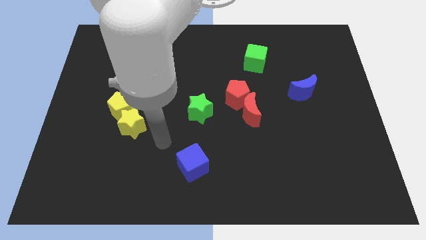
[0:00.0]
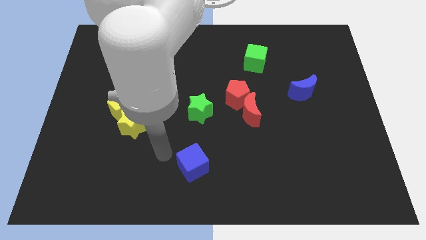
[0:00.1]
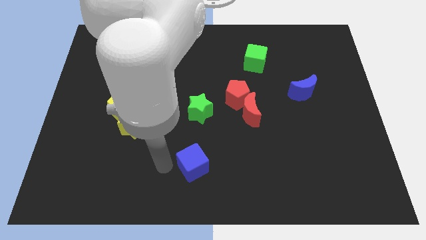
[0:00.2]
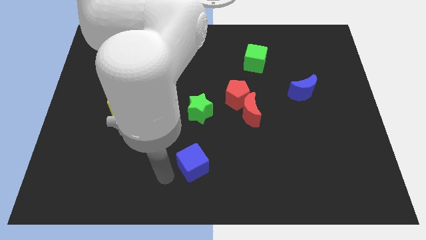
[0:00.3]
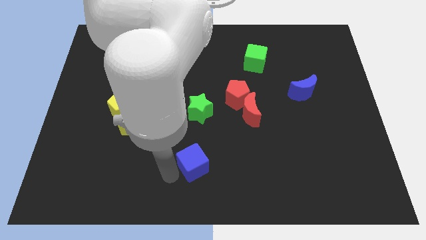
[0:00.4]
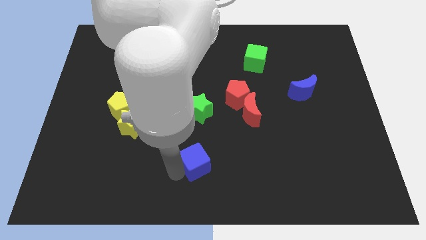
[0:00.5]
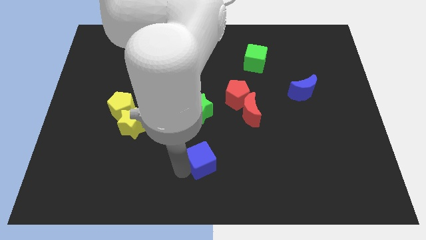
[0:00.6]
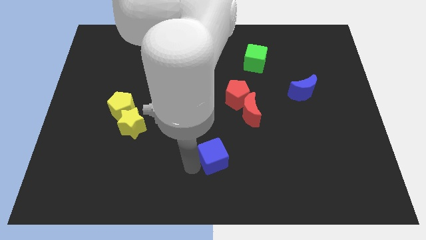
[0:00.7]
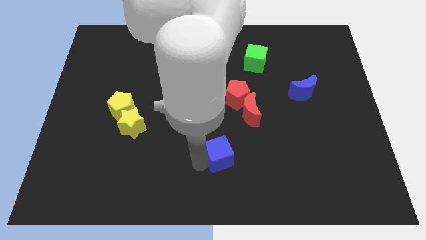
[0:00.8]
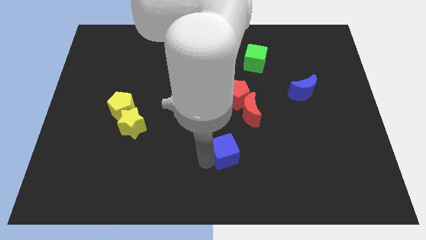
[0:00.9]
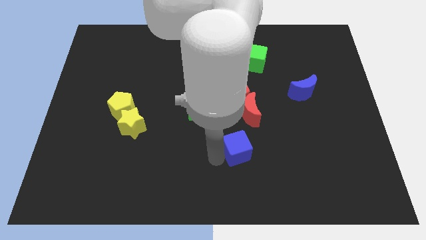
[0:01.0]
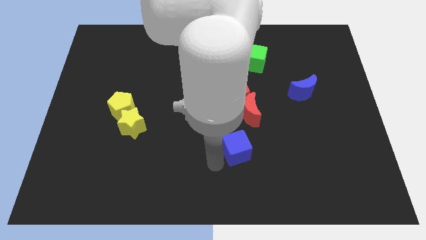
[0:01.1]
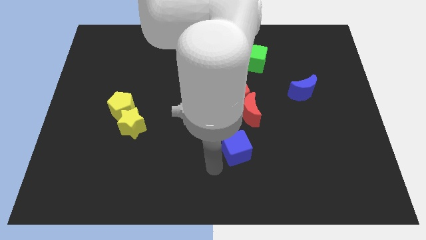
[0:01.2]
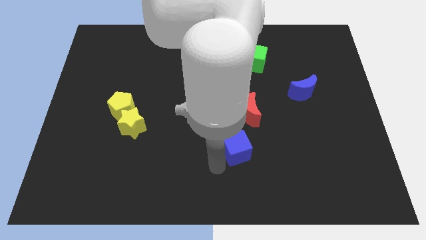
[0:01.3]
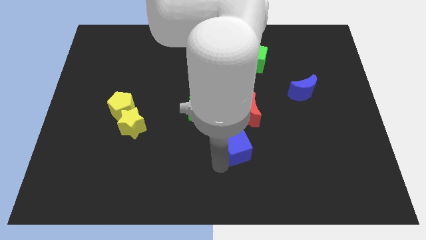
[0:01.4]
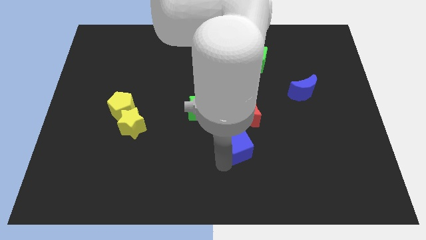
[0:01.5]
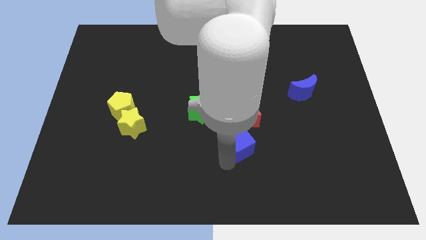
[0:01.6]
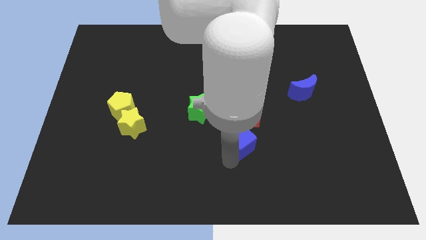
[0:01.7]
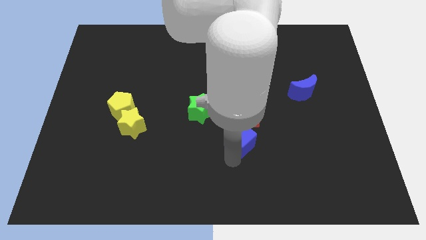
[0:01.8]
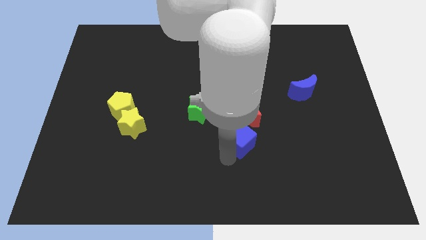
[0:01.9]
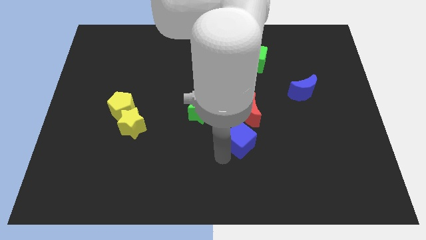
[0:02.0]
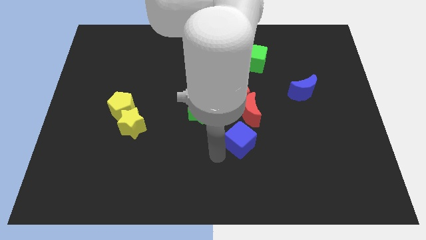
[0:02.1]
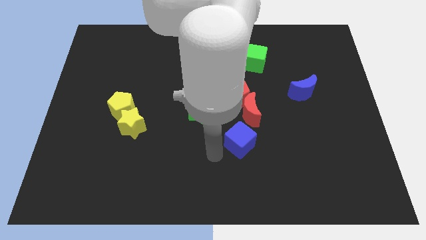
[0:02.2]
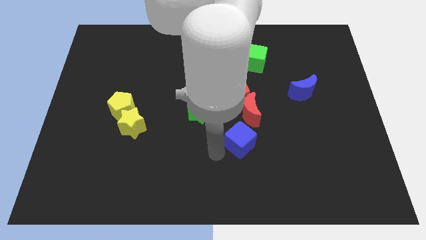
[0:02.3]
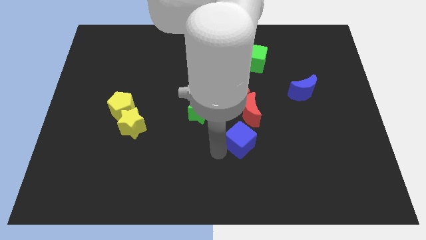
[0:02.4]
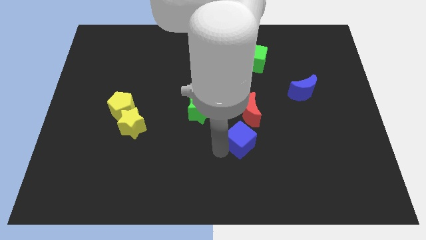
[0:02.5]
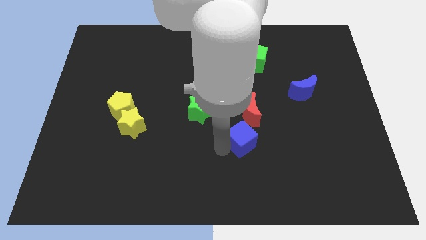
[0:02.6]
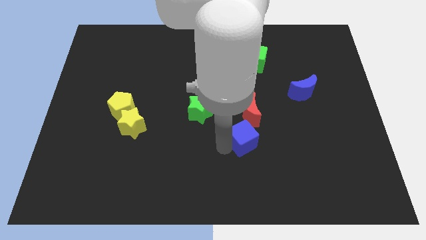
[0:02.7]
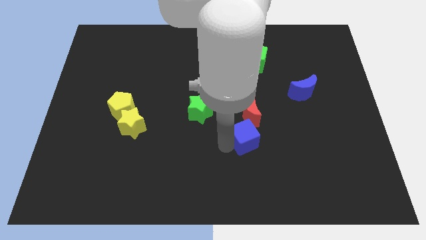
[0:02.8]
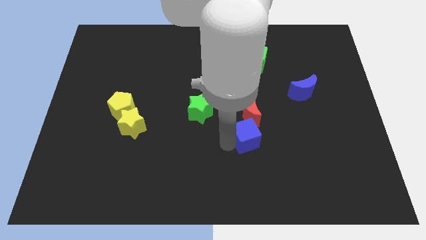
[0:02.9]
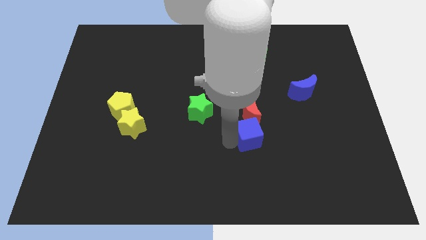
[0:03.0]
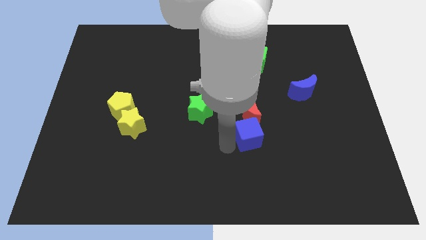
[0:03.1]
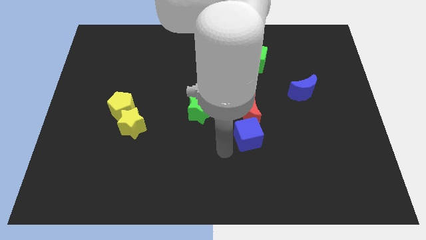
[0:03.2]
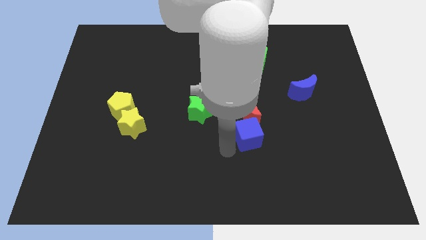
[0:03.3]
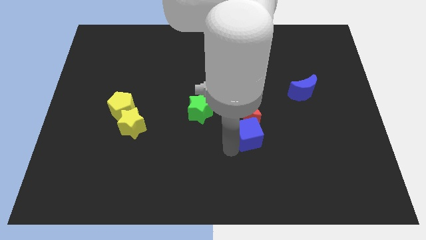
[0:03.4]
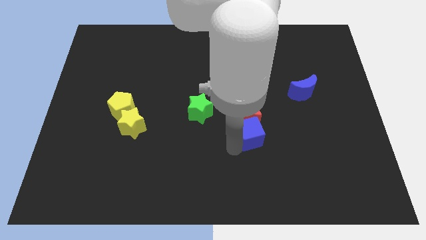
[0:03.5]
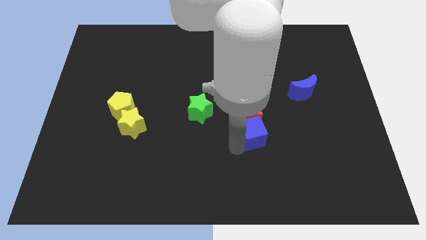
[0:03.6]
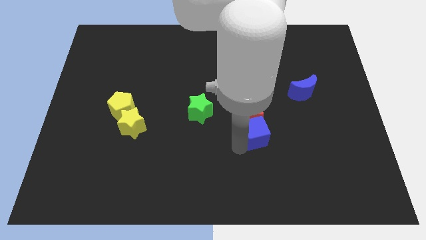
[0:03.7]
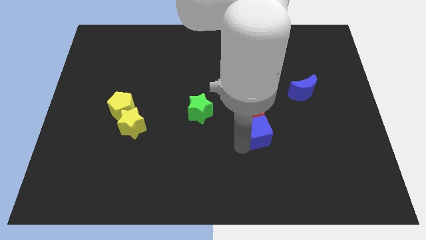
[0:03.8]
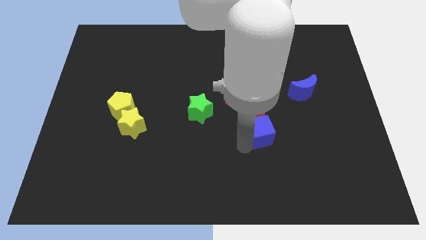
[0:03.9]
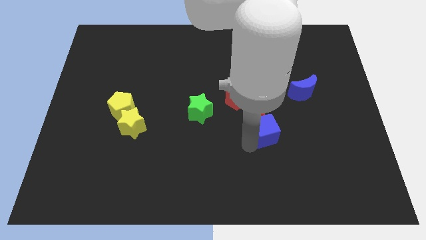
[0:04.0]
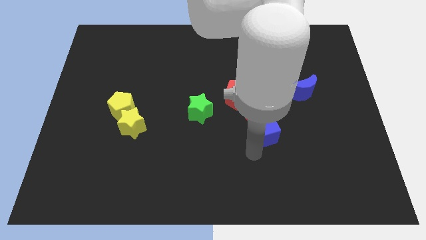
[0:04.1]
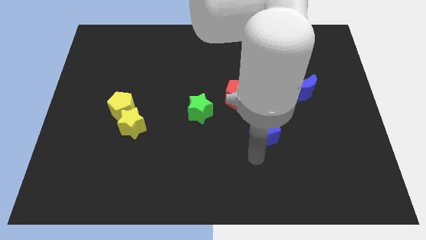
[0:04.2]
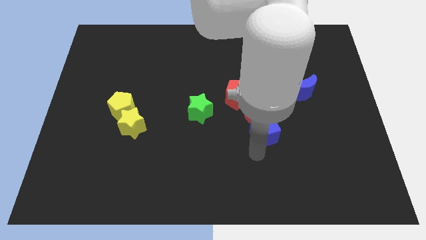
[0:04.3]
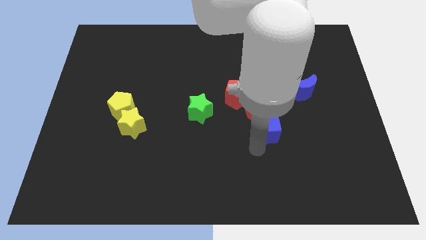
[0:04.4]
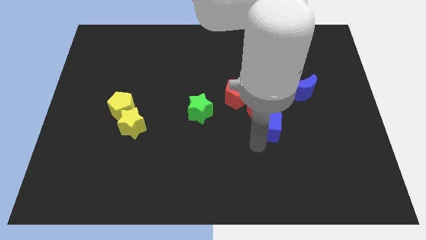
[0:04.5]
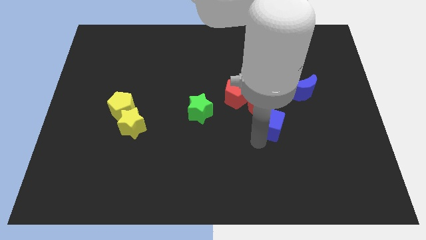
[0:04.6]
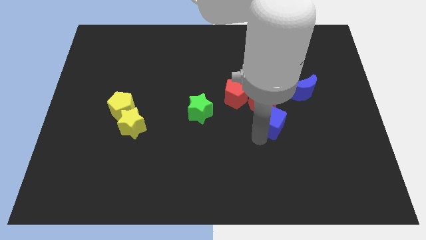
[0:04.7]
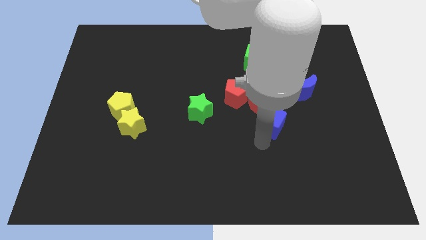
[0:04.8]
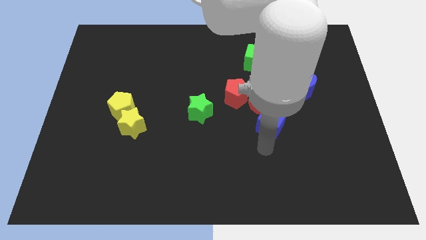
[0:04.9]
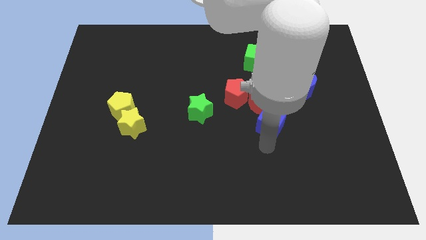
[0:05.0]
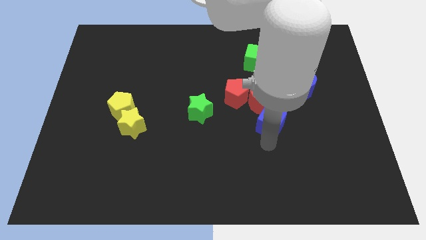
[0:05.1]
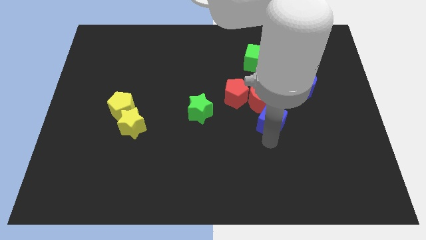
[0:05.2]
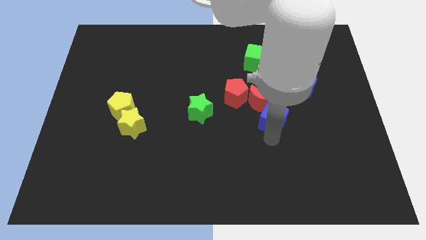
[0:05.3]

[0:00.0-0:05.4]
push the blue cube upwards and right

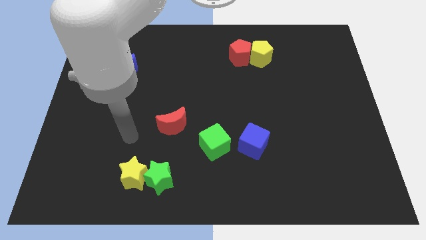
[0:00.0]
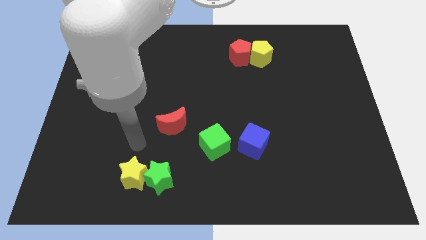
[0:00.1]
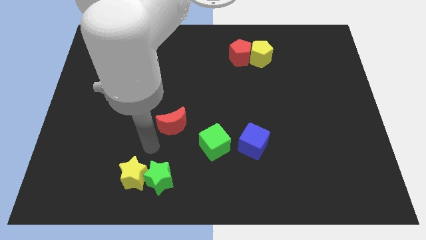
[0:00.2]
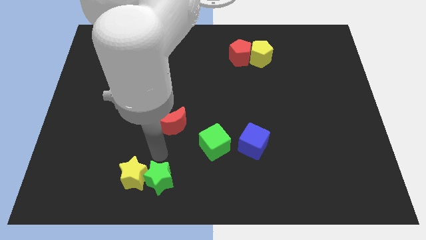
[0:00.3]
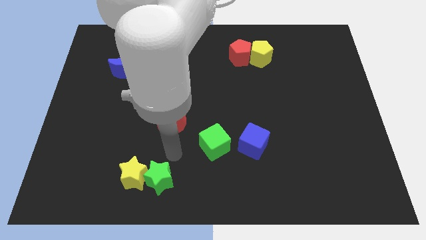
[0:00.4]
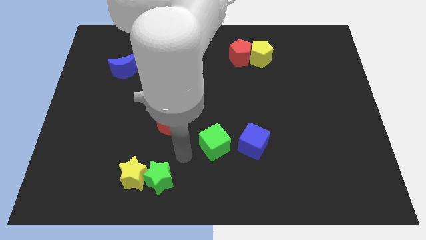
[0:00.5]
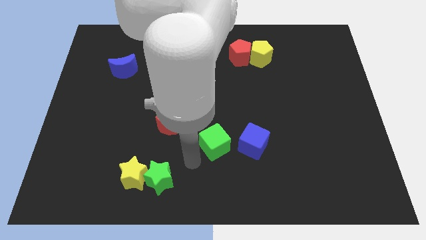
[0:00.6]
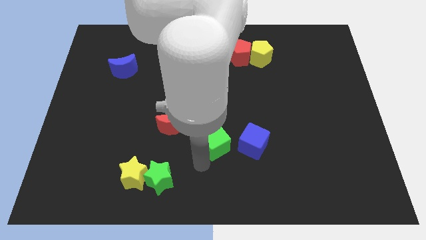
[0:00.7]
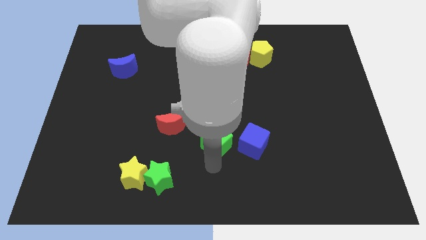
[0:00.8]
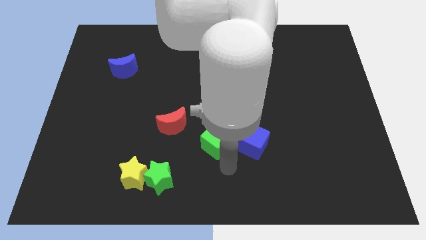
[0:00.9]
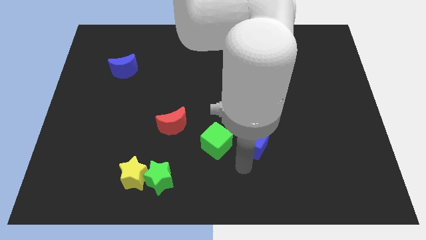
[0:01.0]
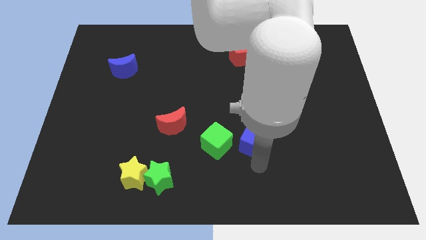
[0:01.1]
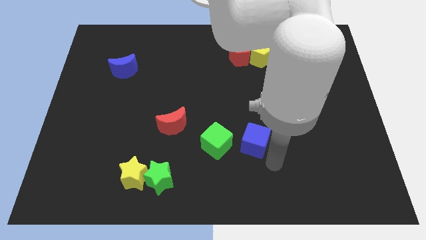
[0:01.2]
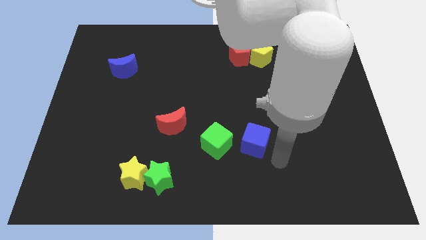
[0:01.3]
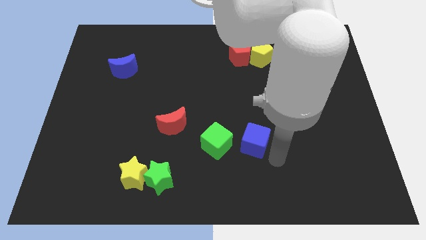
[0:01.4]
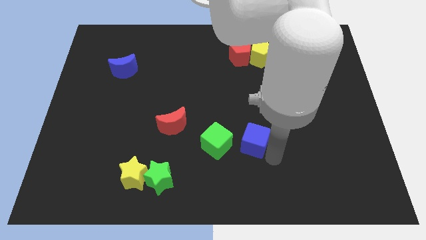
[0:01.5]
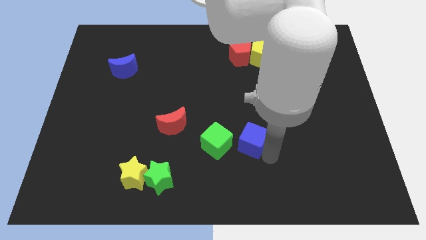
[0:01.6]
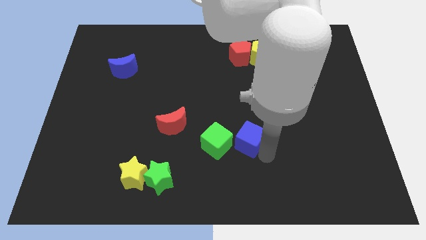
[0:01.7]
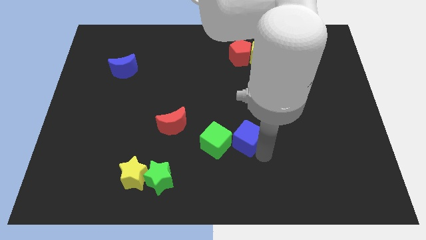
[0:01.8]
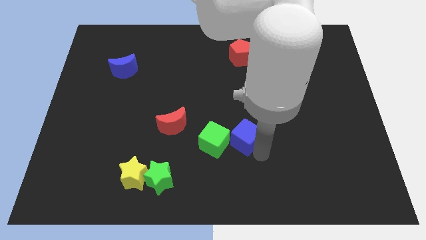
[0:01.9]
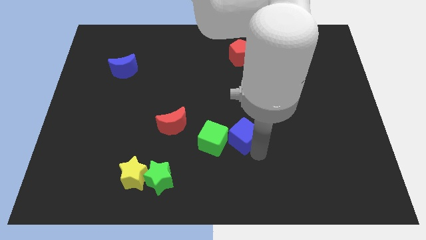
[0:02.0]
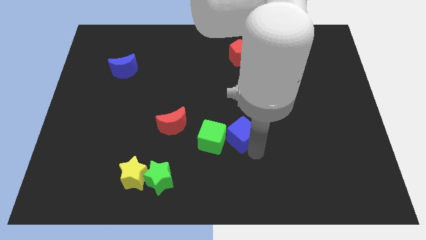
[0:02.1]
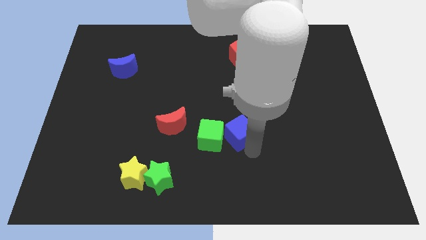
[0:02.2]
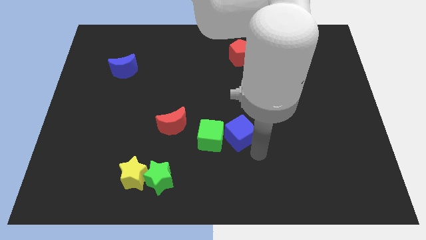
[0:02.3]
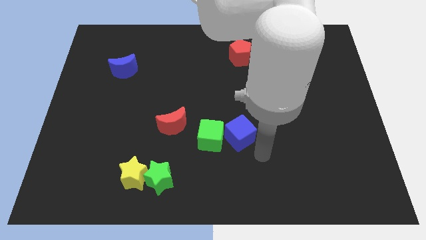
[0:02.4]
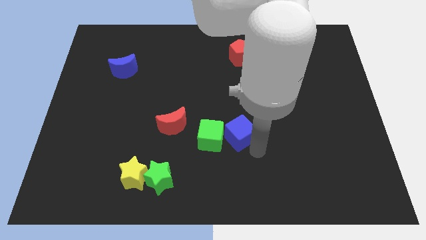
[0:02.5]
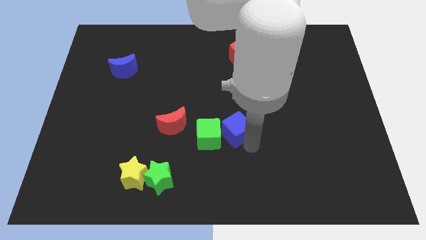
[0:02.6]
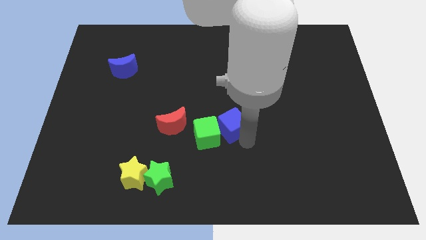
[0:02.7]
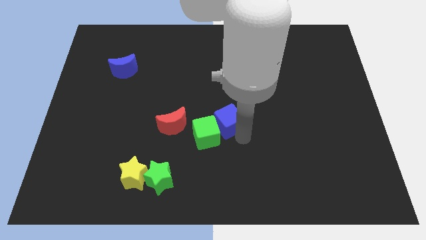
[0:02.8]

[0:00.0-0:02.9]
move the blue cube upwards and left diagonally a bit
